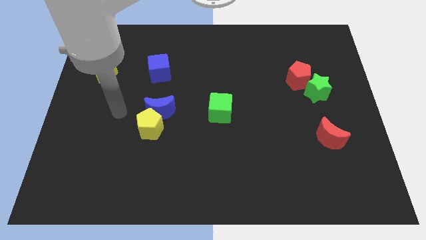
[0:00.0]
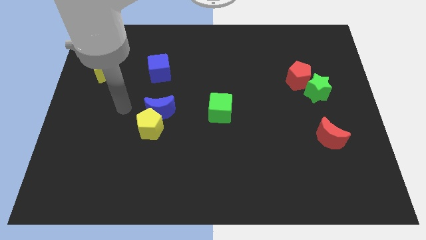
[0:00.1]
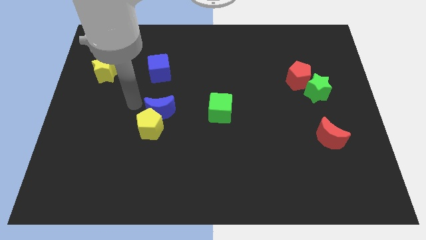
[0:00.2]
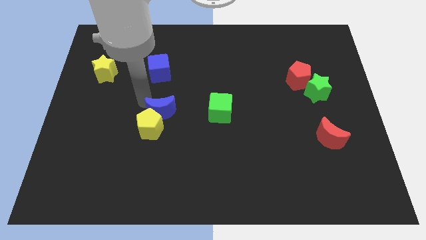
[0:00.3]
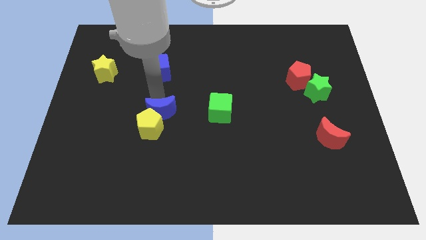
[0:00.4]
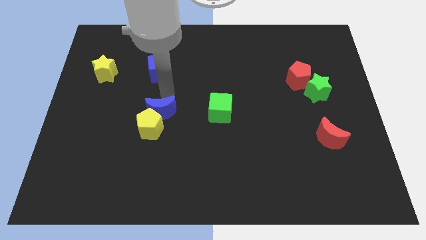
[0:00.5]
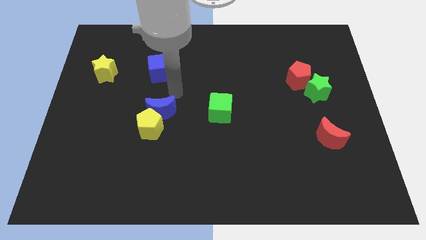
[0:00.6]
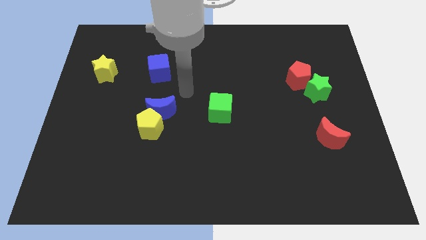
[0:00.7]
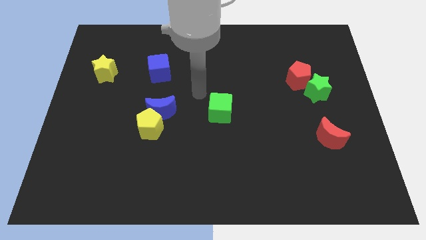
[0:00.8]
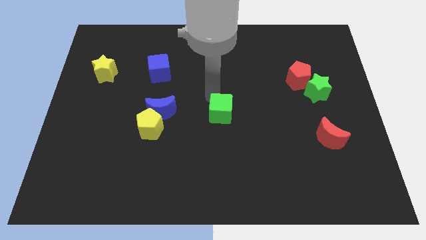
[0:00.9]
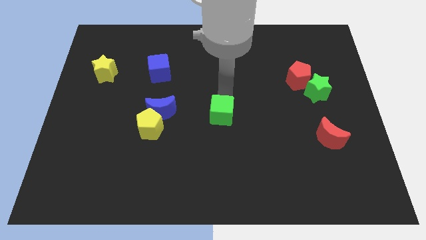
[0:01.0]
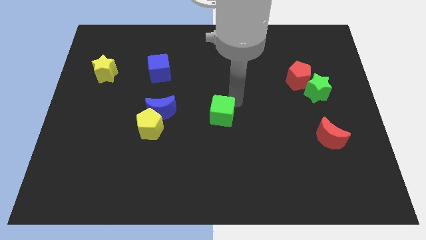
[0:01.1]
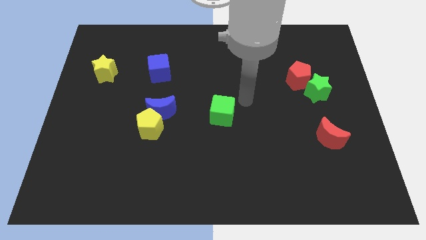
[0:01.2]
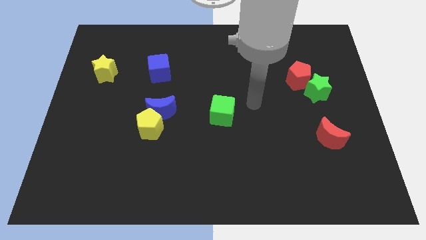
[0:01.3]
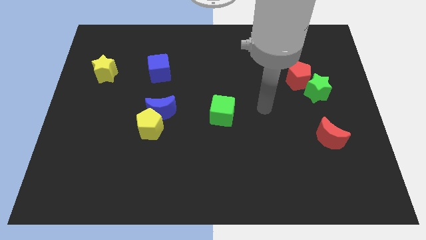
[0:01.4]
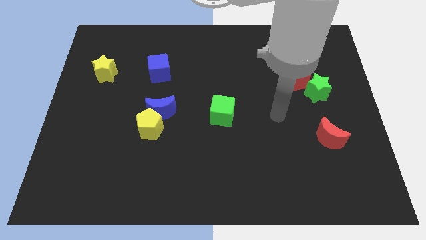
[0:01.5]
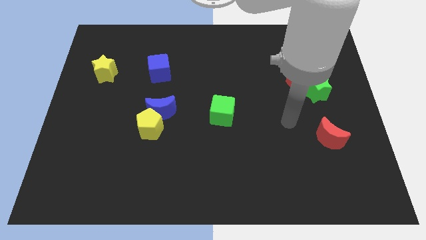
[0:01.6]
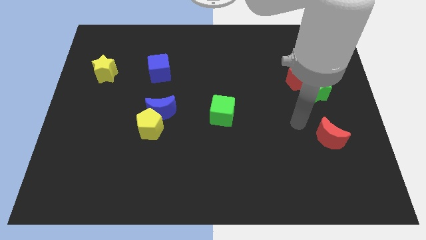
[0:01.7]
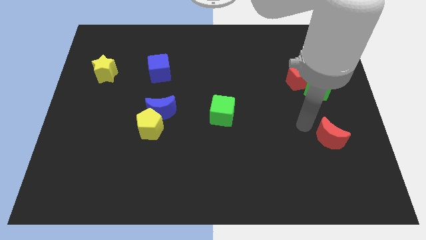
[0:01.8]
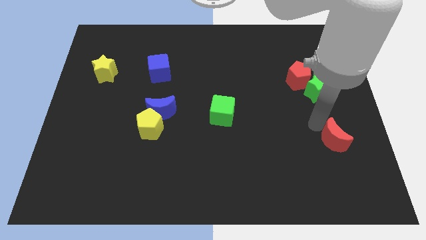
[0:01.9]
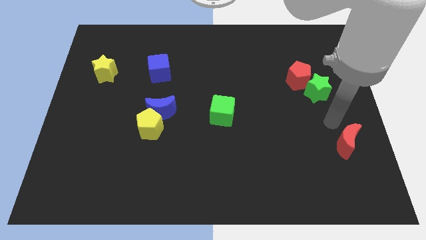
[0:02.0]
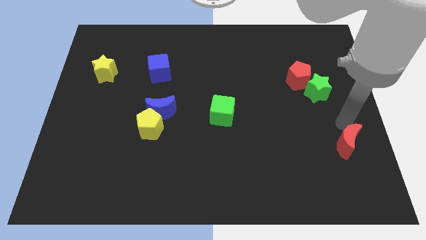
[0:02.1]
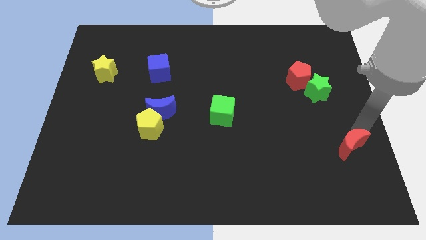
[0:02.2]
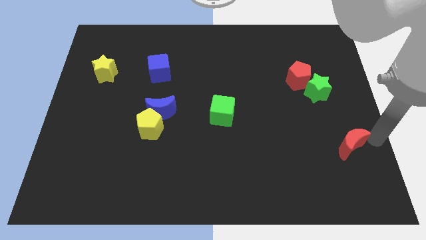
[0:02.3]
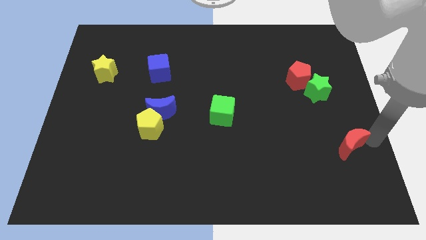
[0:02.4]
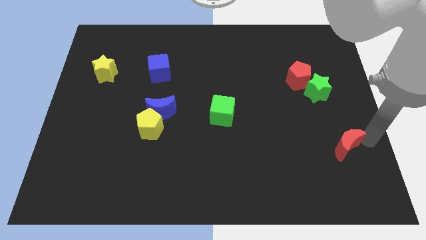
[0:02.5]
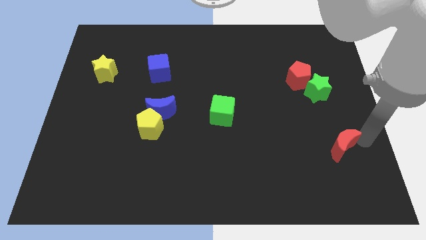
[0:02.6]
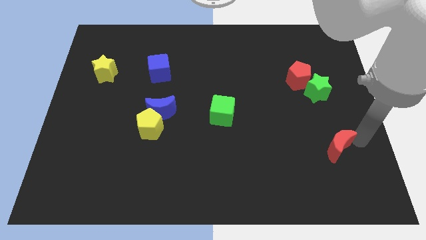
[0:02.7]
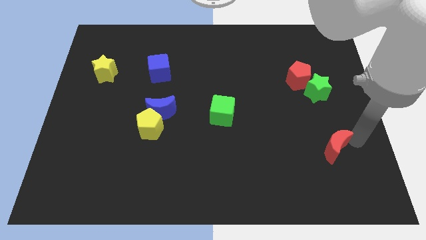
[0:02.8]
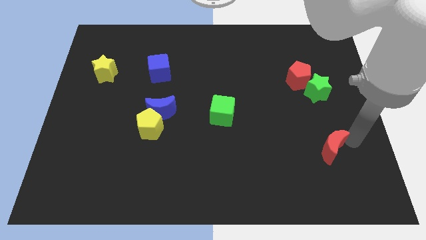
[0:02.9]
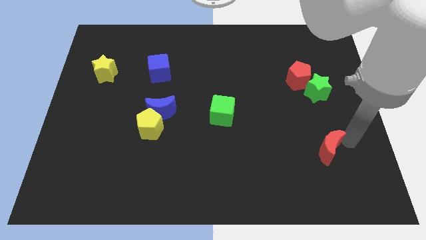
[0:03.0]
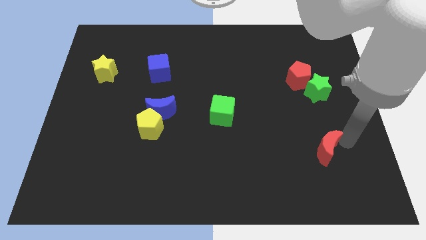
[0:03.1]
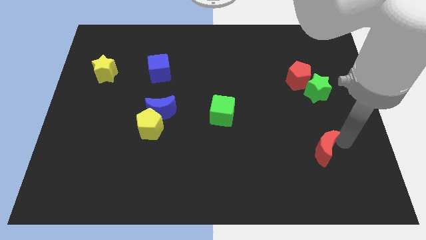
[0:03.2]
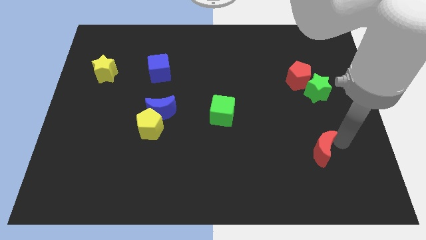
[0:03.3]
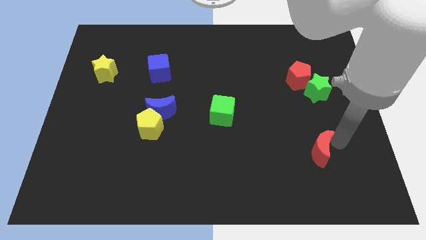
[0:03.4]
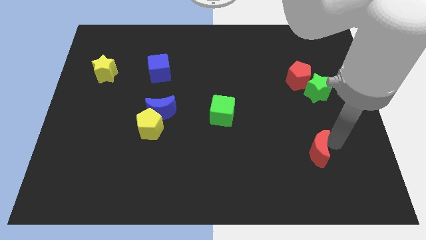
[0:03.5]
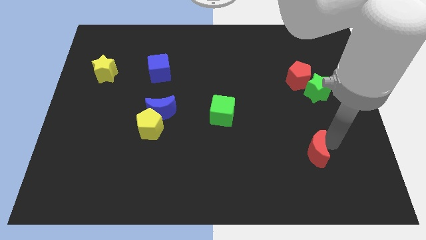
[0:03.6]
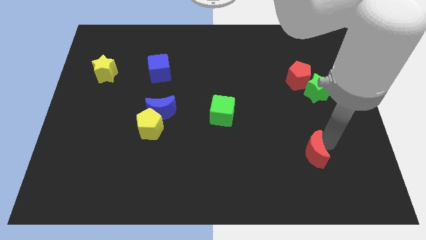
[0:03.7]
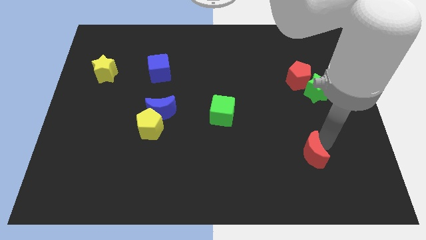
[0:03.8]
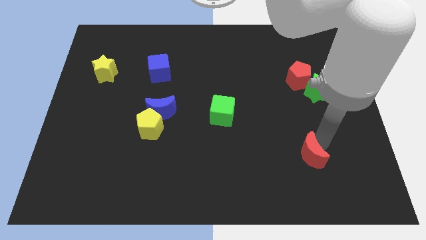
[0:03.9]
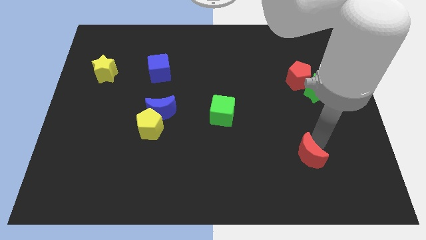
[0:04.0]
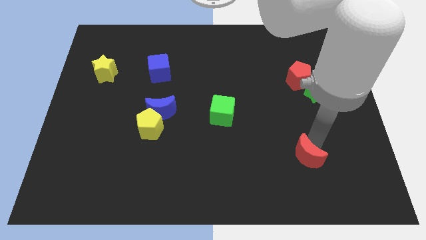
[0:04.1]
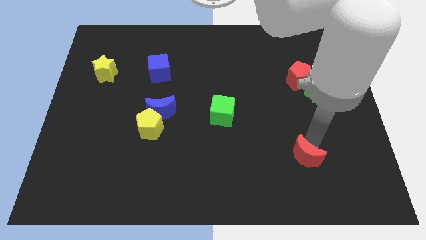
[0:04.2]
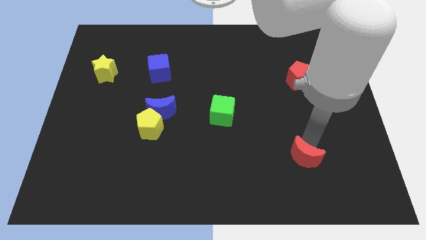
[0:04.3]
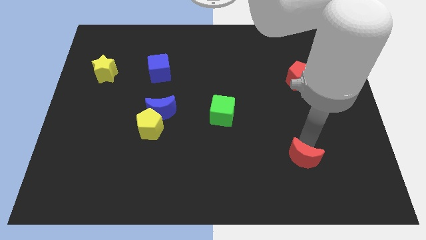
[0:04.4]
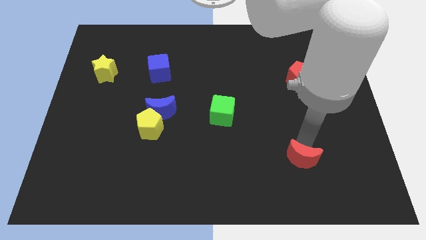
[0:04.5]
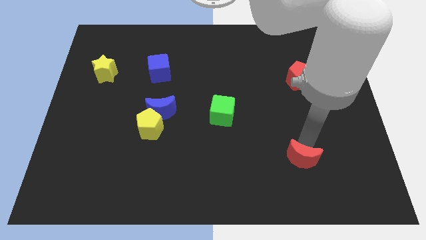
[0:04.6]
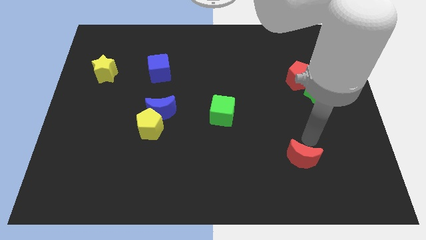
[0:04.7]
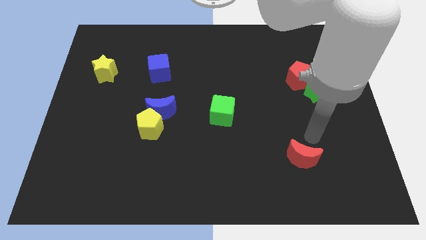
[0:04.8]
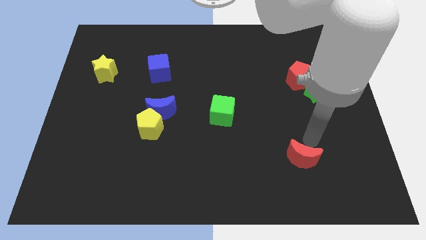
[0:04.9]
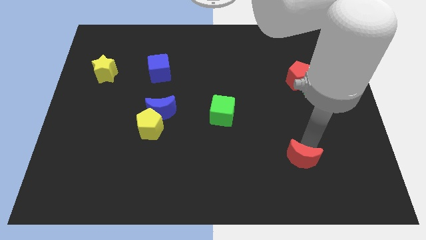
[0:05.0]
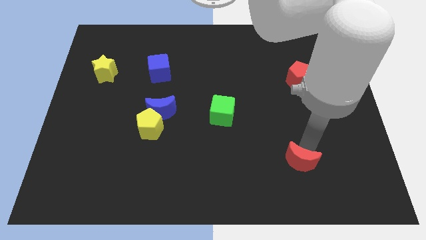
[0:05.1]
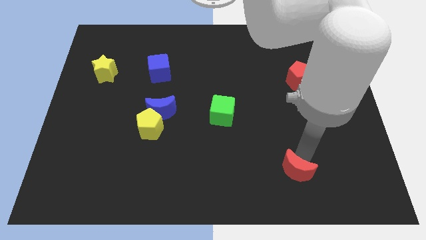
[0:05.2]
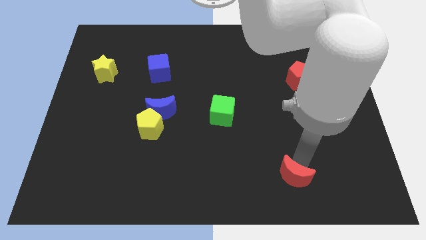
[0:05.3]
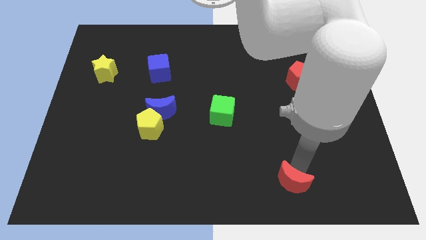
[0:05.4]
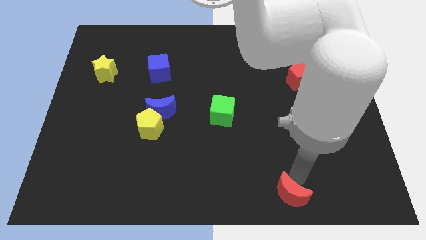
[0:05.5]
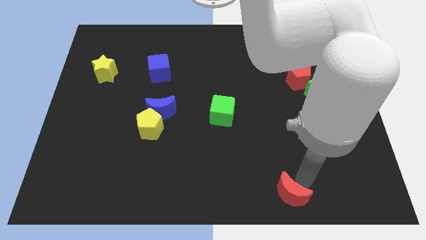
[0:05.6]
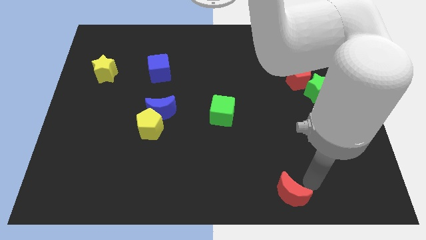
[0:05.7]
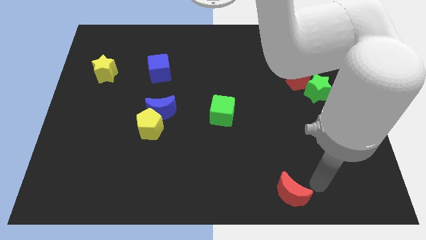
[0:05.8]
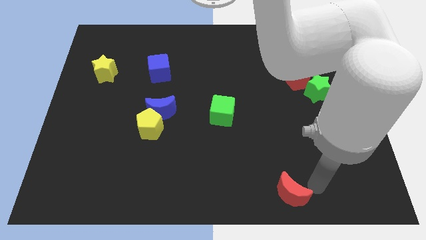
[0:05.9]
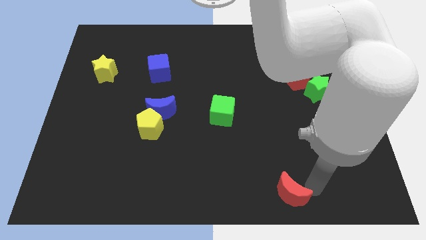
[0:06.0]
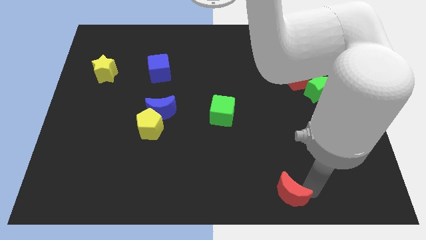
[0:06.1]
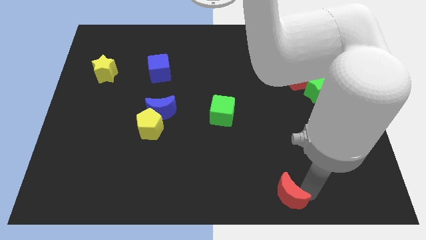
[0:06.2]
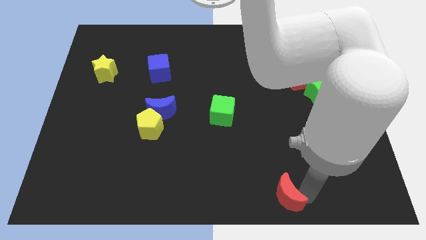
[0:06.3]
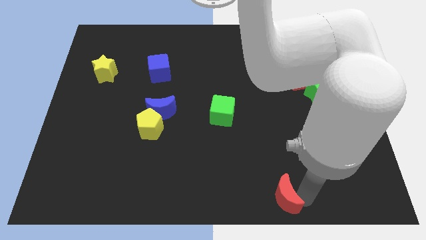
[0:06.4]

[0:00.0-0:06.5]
move the red moon to the bottom side

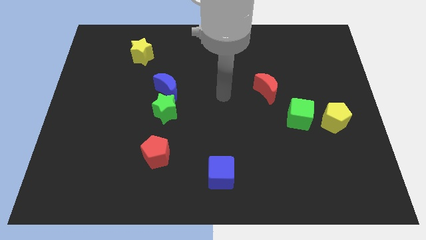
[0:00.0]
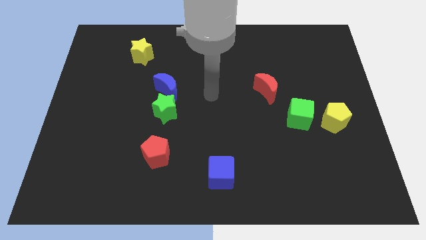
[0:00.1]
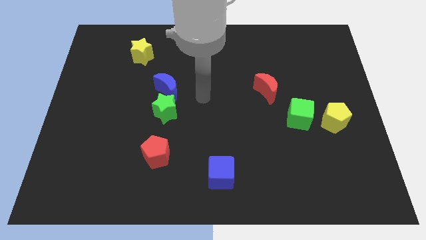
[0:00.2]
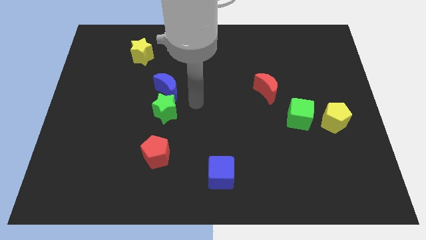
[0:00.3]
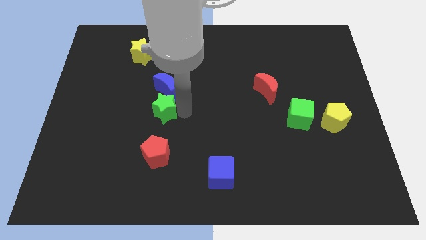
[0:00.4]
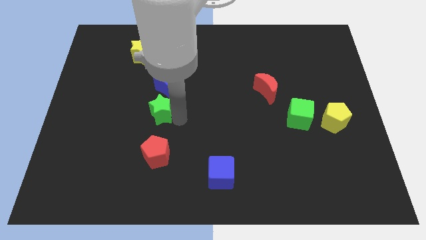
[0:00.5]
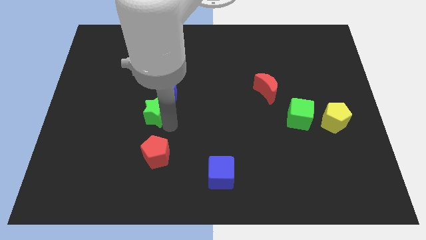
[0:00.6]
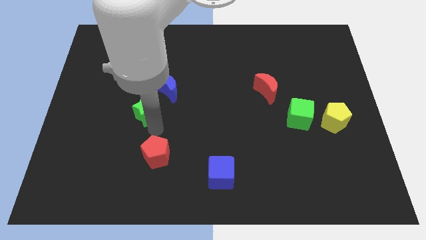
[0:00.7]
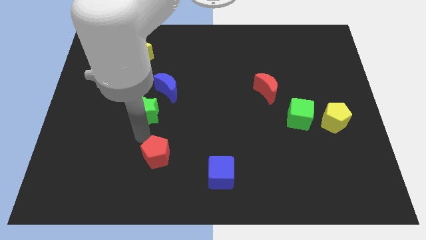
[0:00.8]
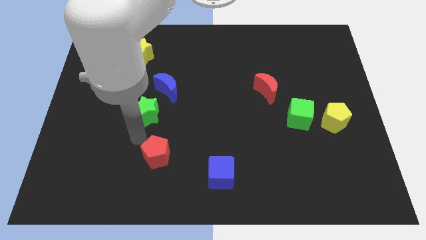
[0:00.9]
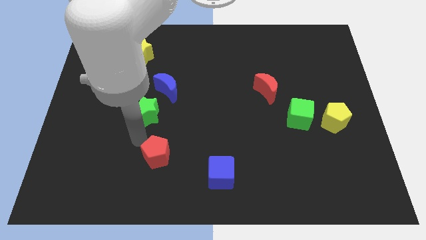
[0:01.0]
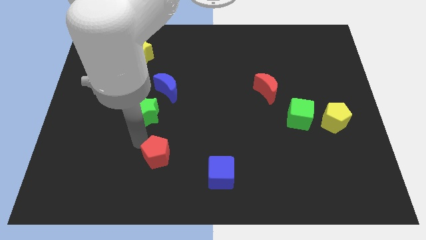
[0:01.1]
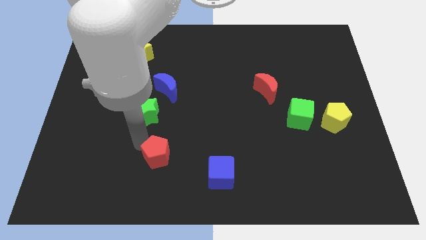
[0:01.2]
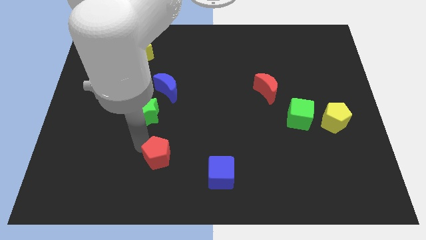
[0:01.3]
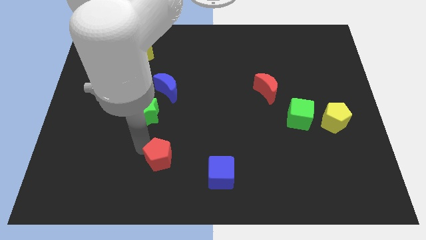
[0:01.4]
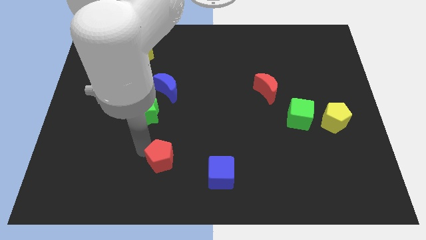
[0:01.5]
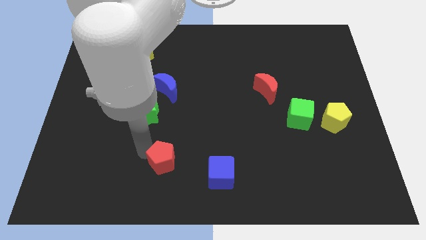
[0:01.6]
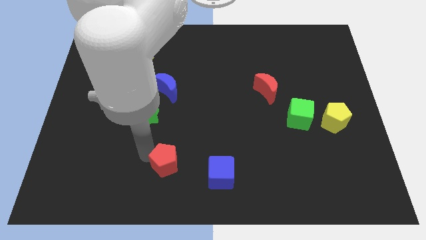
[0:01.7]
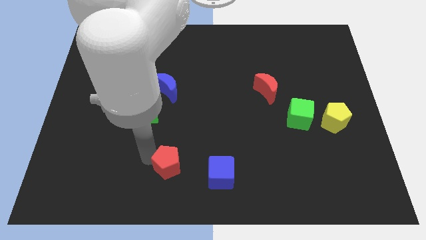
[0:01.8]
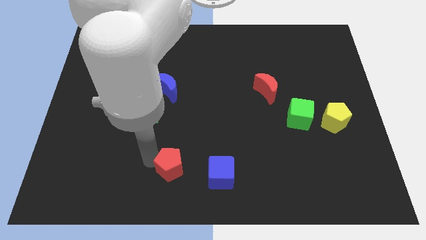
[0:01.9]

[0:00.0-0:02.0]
put the red pentagon to the bottom side
